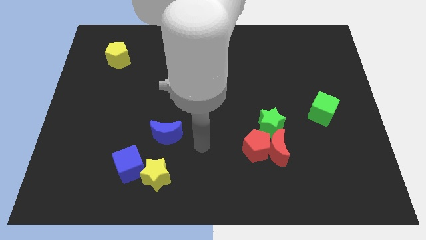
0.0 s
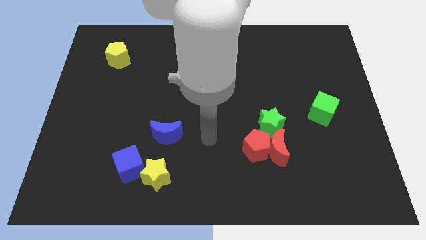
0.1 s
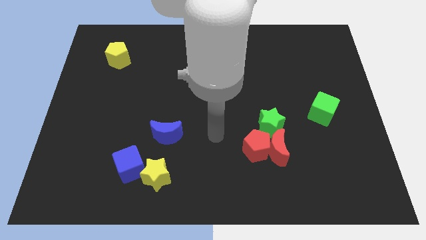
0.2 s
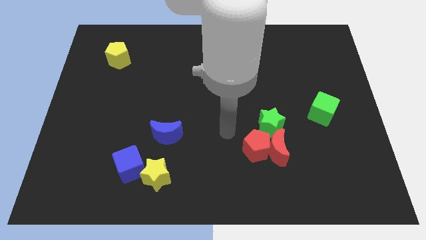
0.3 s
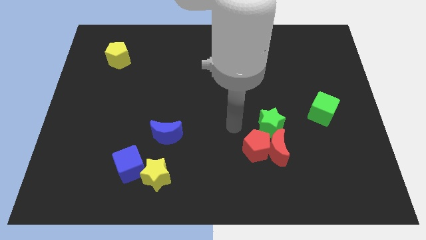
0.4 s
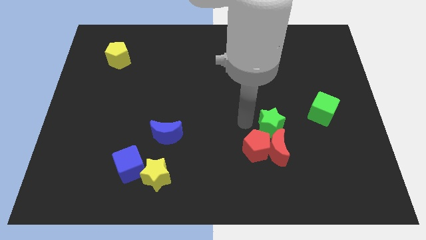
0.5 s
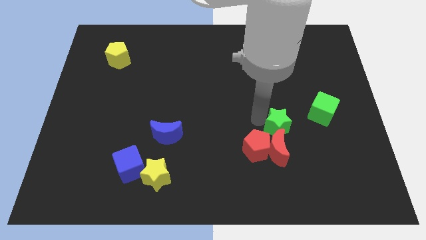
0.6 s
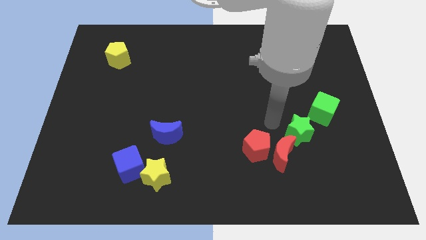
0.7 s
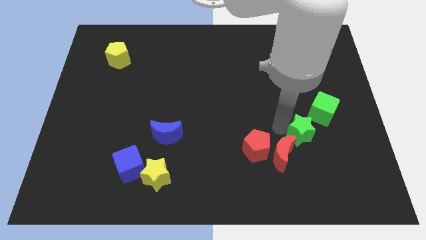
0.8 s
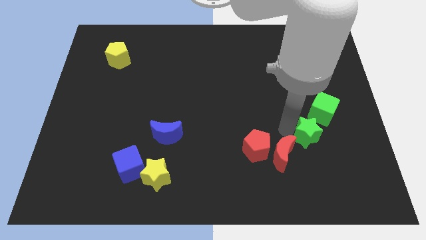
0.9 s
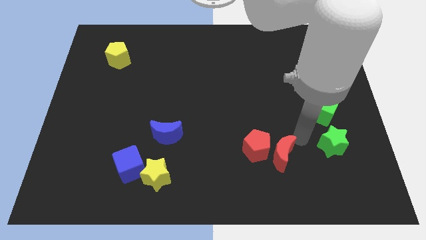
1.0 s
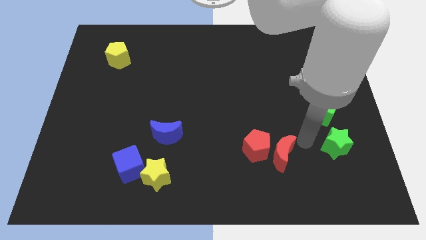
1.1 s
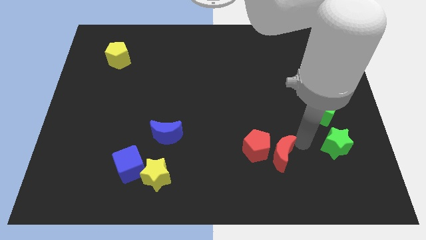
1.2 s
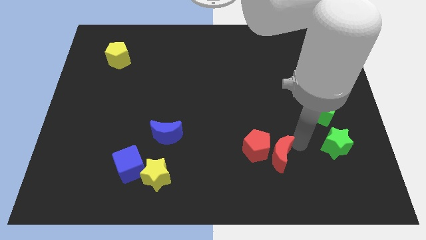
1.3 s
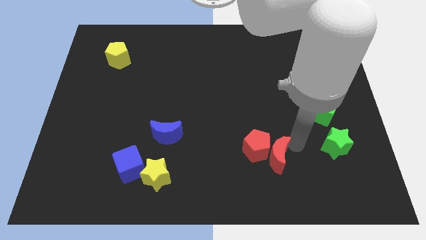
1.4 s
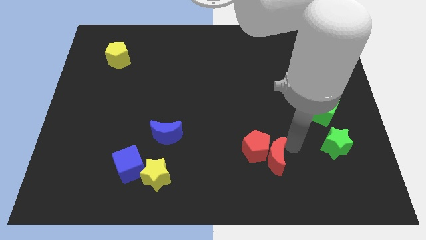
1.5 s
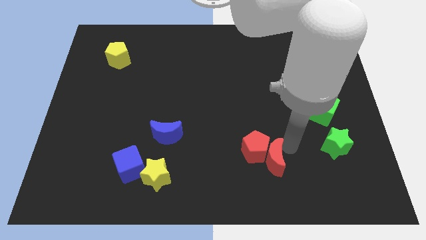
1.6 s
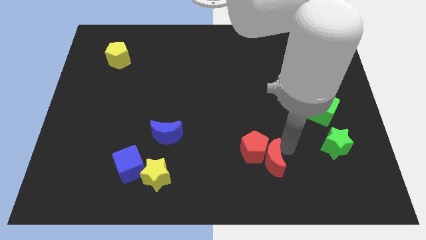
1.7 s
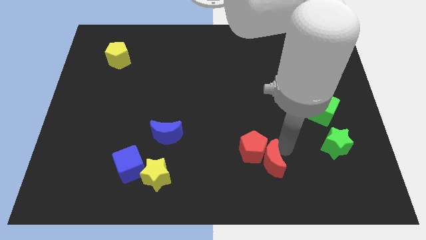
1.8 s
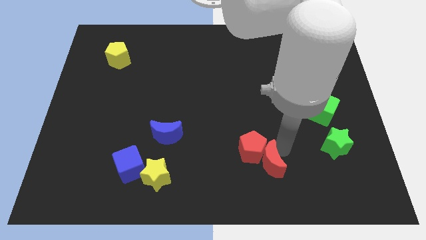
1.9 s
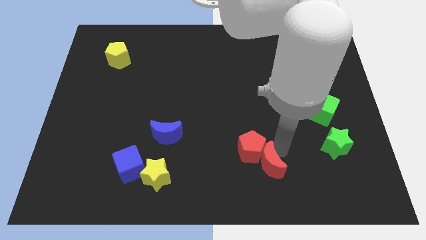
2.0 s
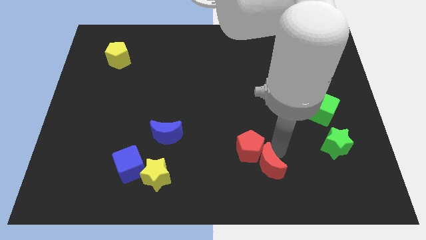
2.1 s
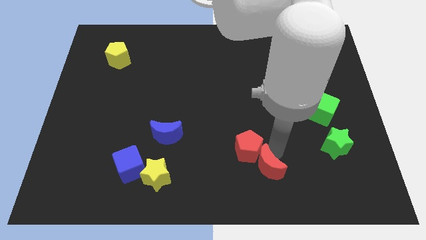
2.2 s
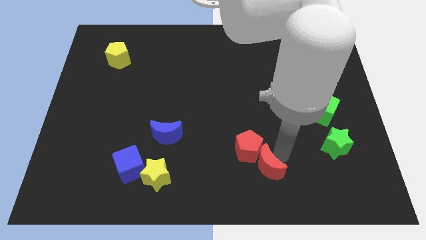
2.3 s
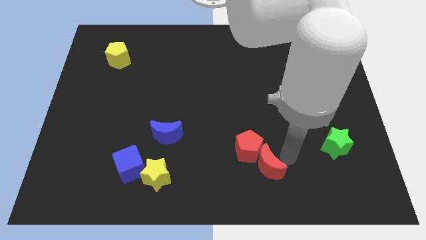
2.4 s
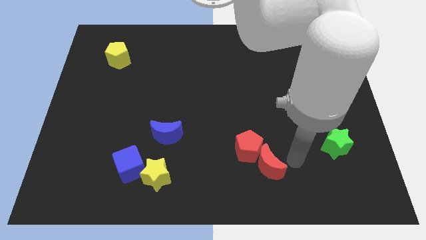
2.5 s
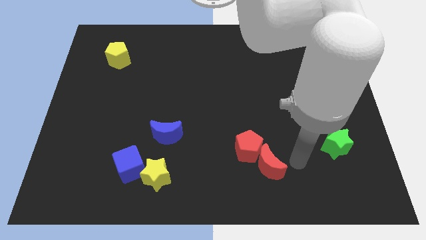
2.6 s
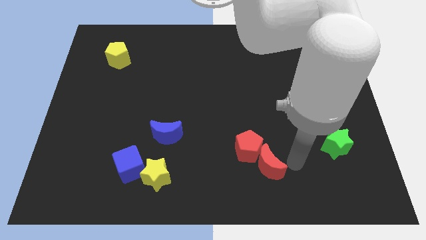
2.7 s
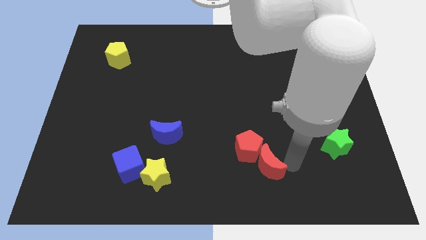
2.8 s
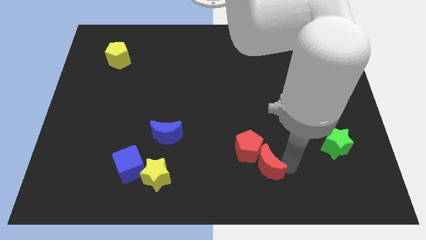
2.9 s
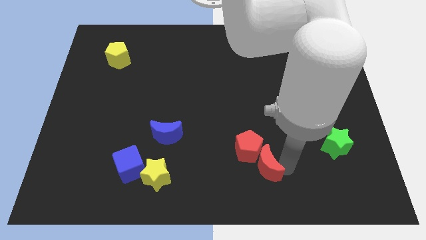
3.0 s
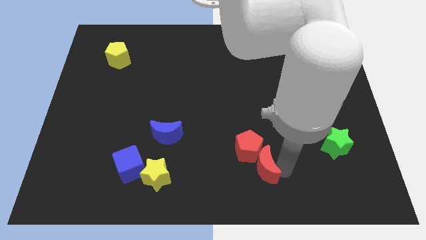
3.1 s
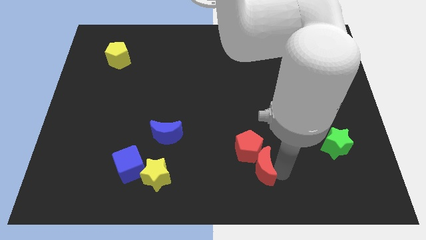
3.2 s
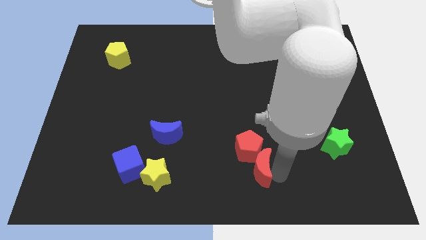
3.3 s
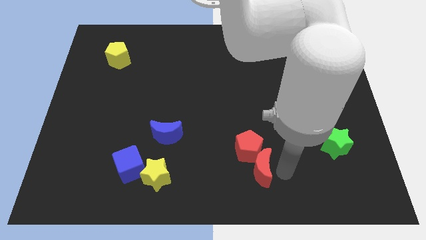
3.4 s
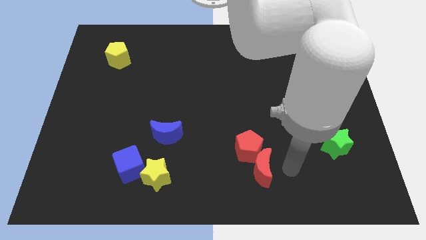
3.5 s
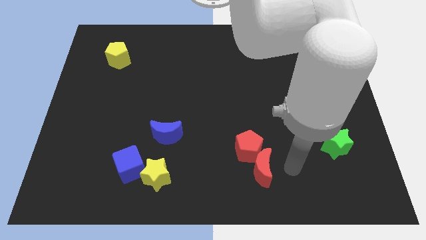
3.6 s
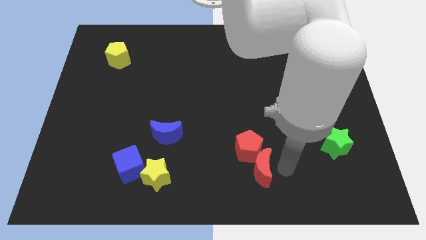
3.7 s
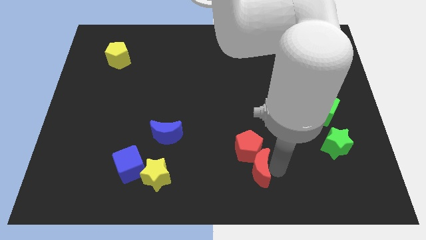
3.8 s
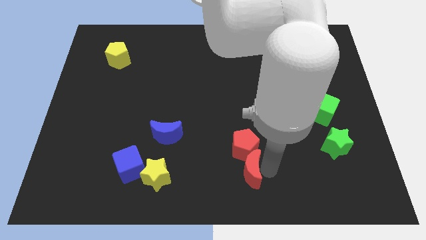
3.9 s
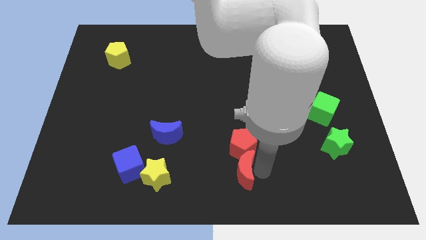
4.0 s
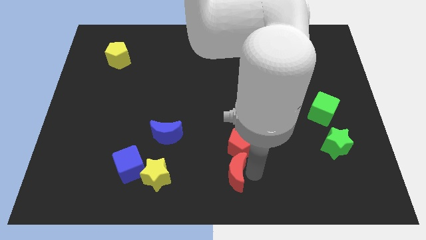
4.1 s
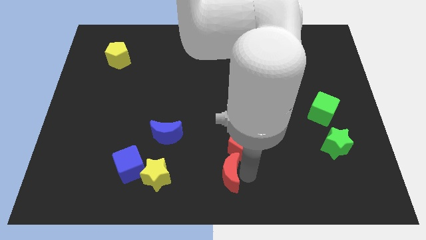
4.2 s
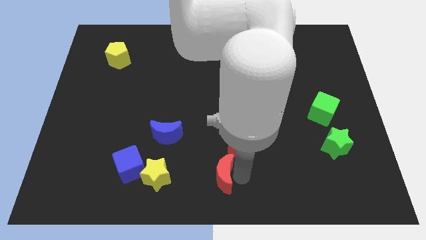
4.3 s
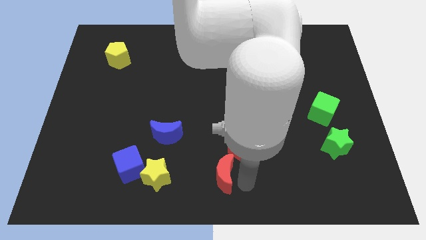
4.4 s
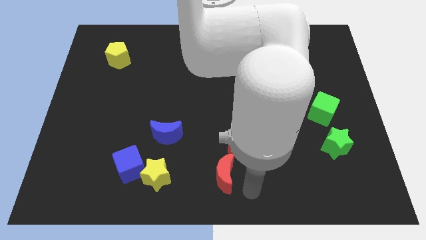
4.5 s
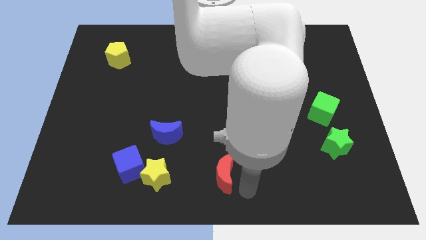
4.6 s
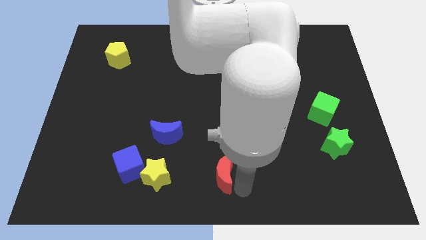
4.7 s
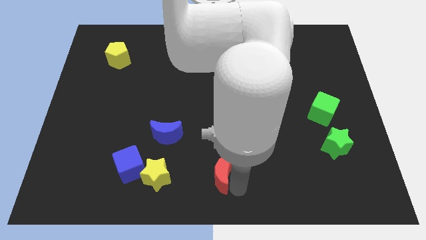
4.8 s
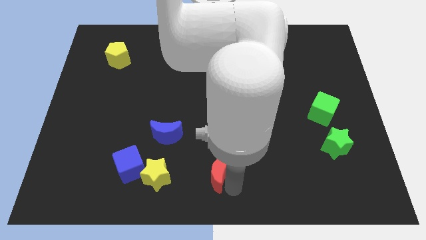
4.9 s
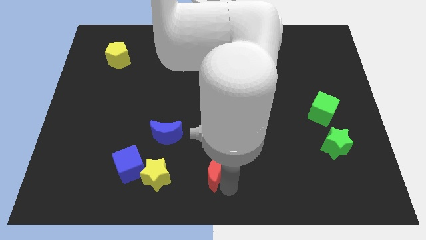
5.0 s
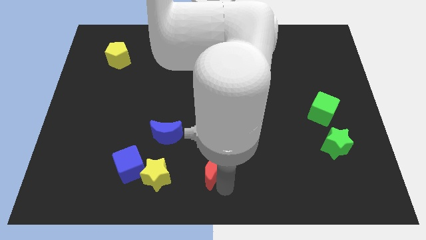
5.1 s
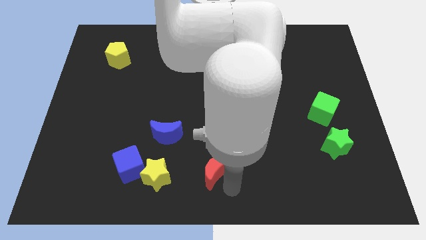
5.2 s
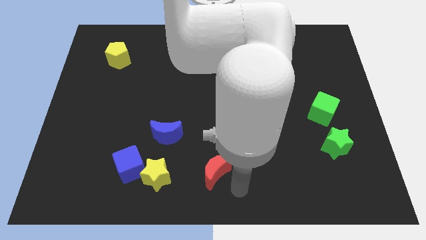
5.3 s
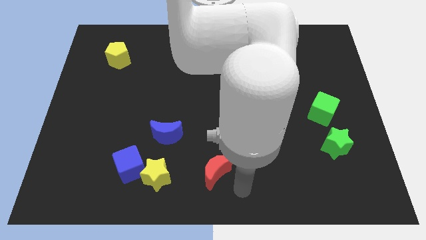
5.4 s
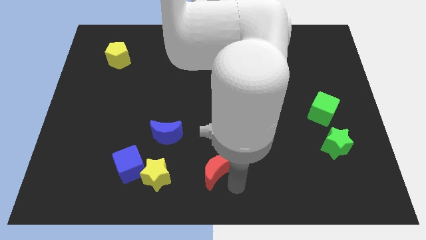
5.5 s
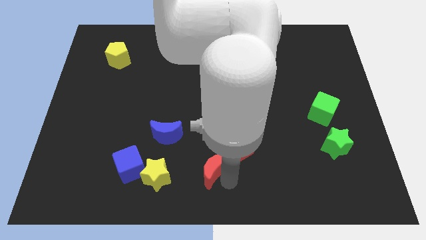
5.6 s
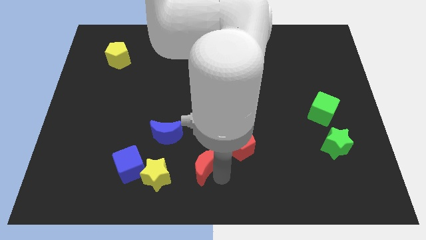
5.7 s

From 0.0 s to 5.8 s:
move the red moon diagonally down and to the right of the blue moon

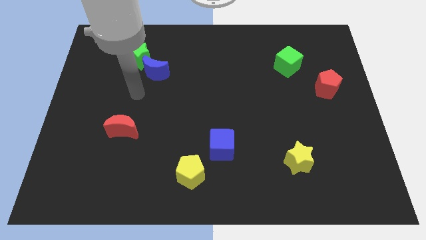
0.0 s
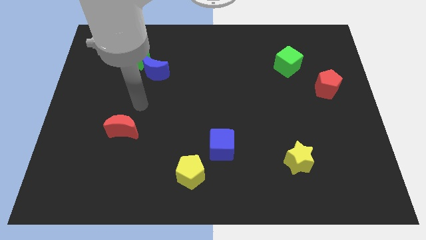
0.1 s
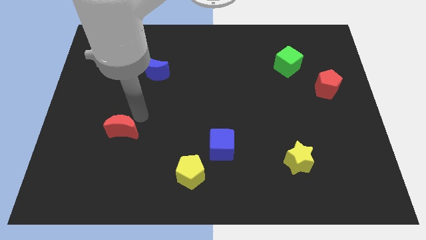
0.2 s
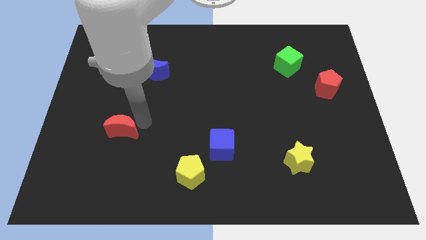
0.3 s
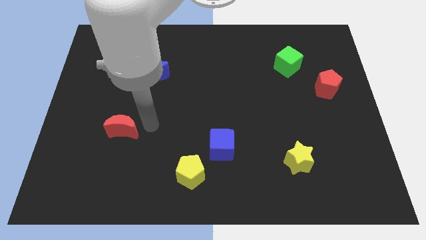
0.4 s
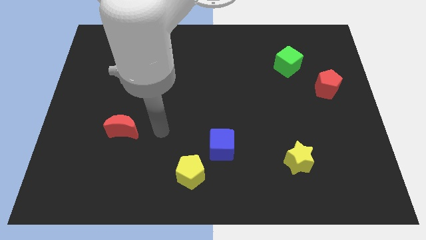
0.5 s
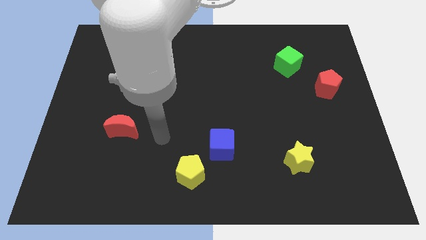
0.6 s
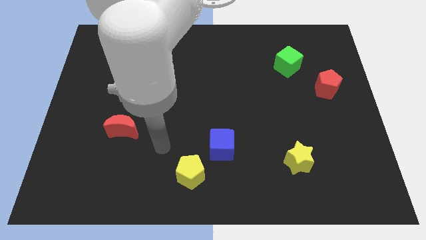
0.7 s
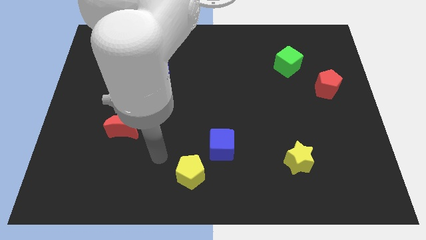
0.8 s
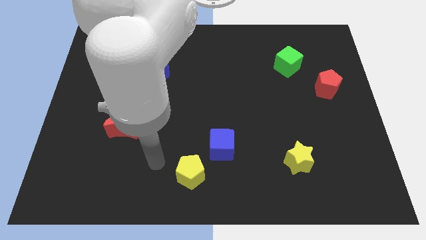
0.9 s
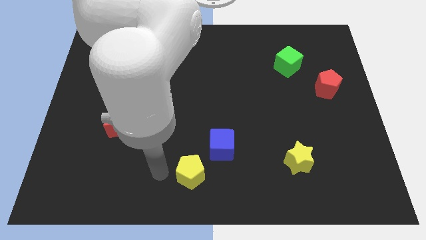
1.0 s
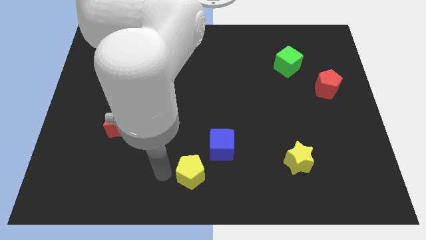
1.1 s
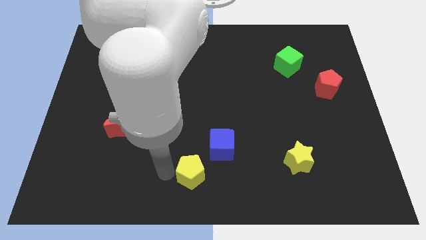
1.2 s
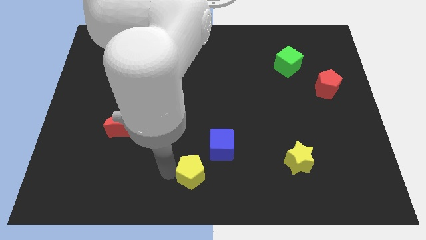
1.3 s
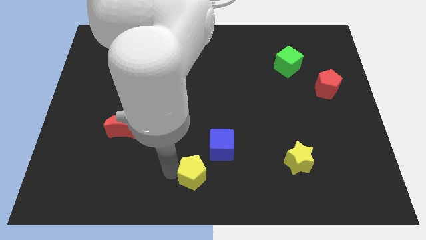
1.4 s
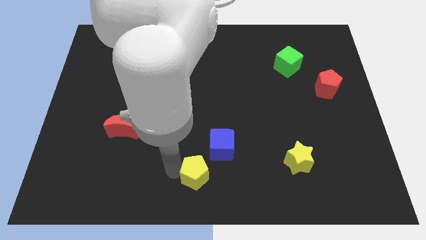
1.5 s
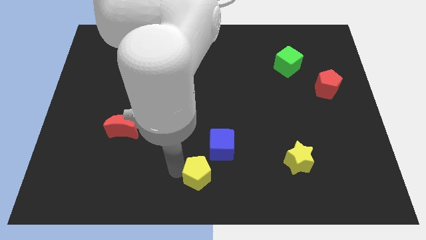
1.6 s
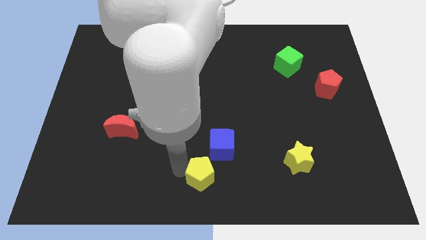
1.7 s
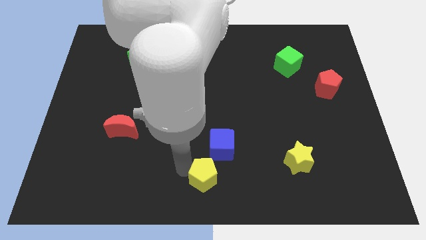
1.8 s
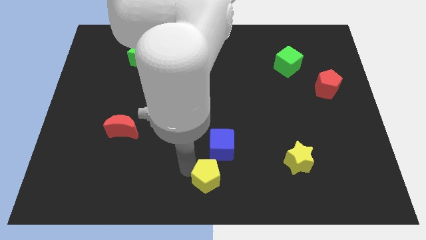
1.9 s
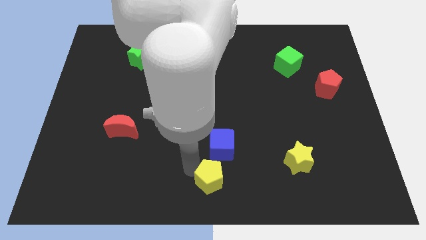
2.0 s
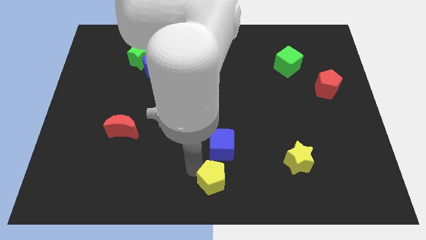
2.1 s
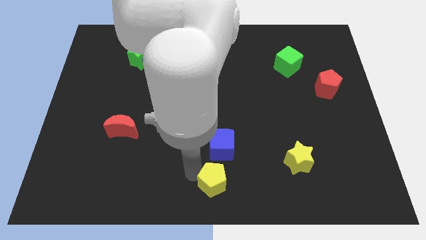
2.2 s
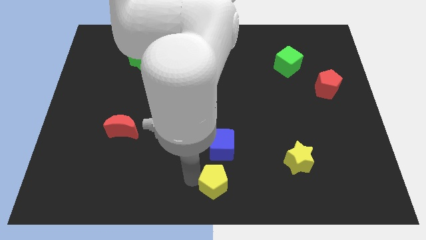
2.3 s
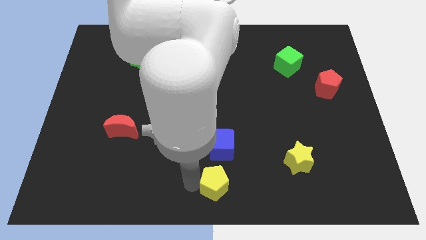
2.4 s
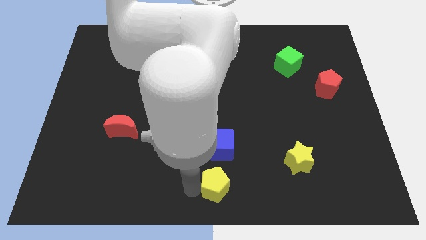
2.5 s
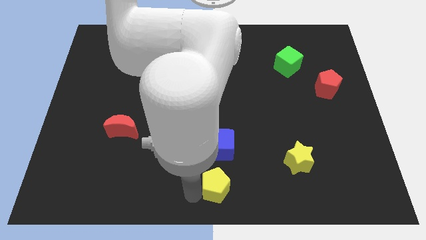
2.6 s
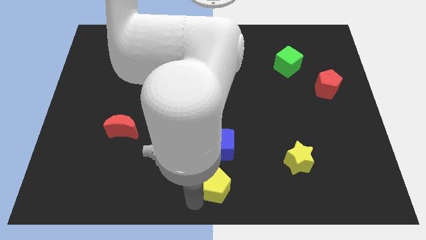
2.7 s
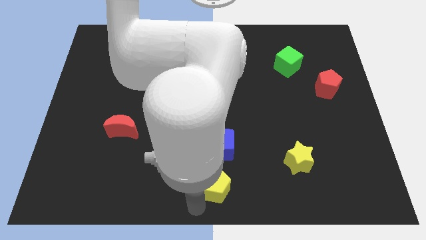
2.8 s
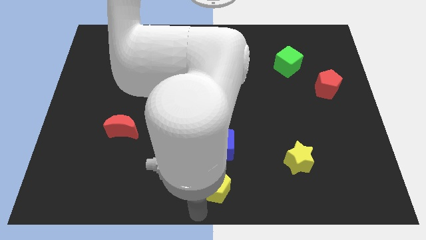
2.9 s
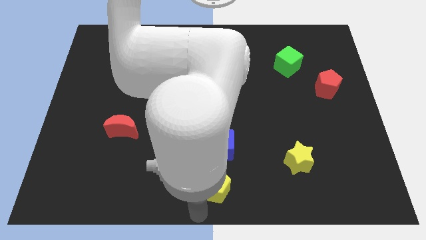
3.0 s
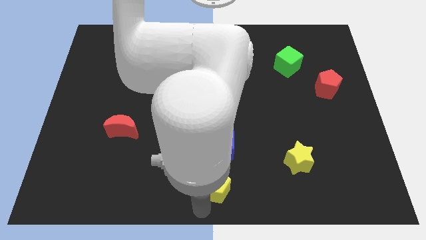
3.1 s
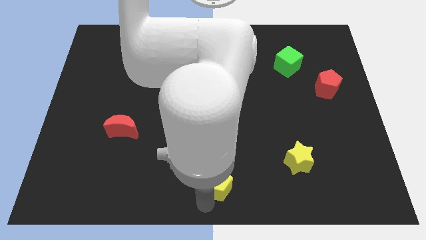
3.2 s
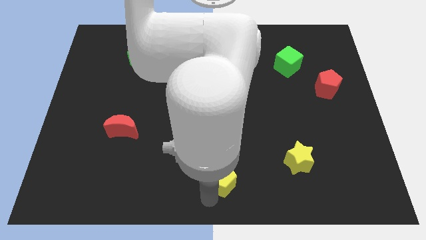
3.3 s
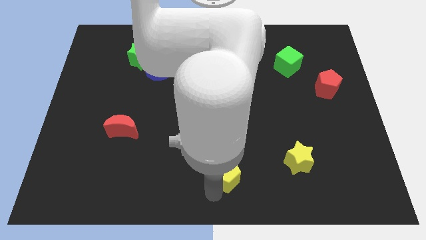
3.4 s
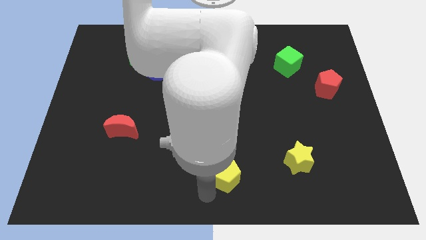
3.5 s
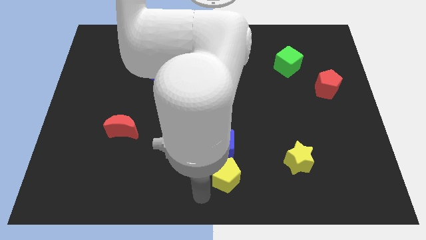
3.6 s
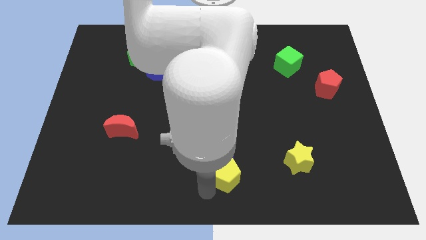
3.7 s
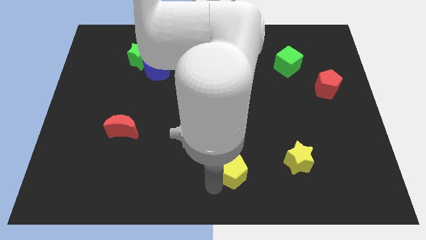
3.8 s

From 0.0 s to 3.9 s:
push the yellow pentagon to the left of the yellow star
